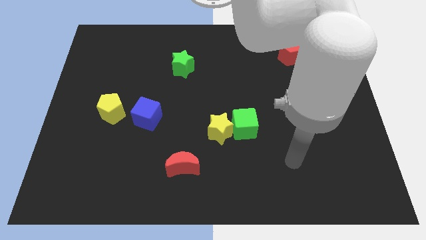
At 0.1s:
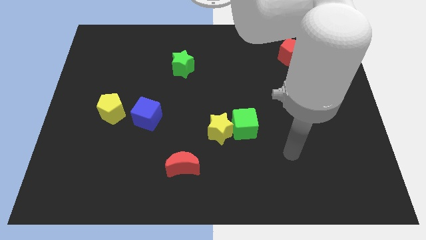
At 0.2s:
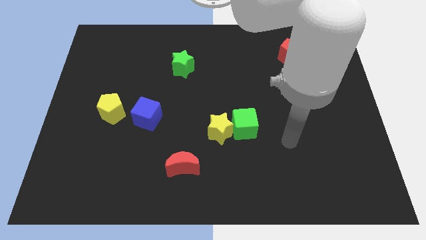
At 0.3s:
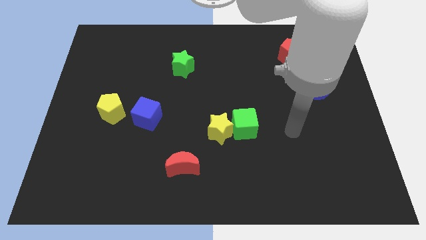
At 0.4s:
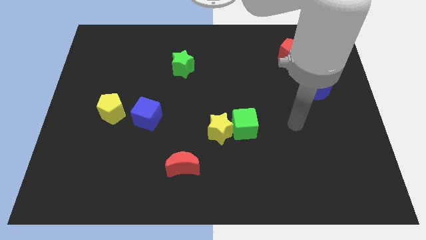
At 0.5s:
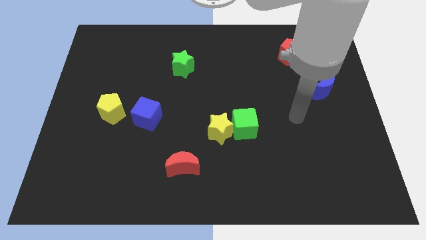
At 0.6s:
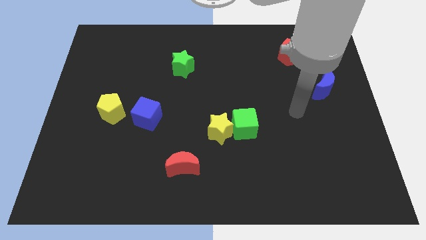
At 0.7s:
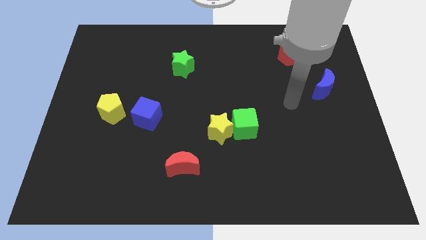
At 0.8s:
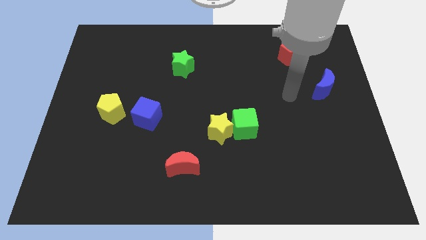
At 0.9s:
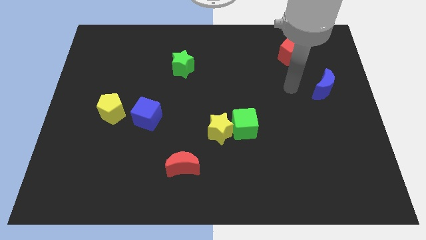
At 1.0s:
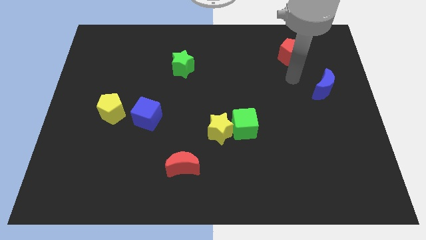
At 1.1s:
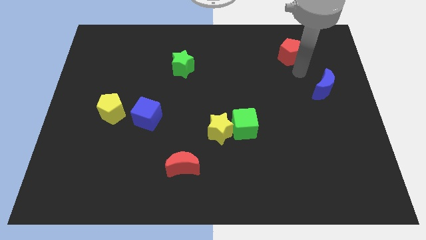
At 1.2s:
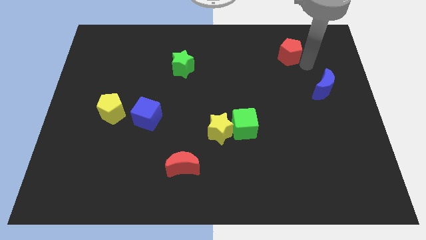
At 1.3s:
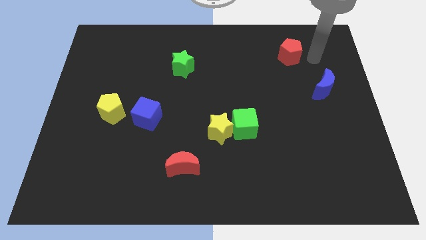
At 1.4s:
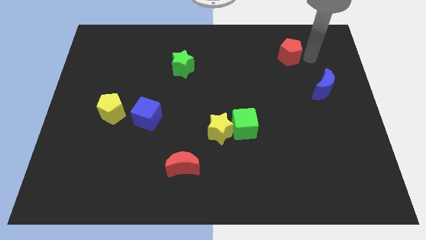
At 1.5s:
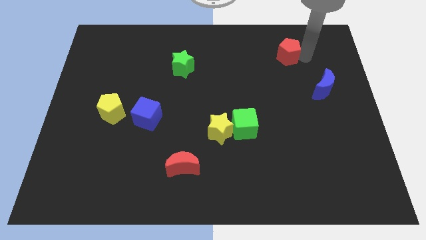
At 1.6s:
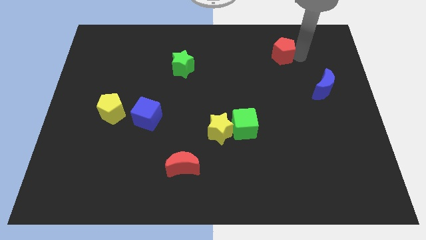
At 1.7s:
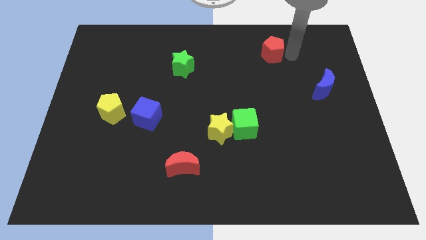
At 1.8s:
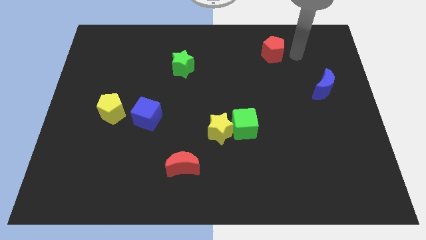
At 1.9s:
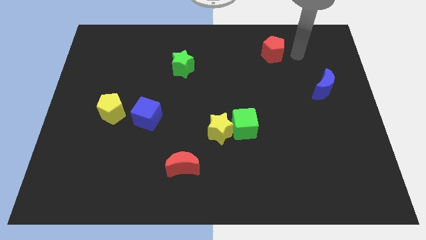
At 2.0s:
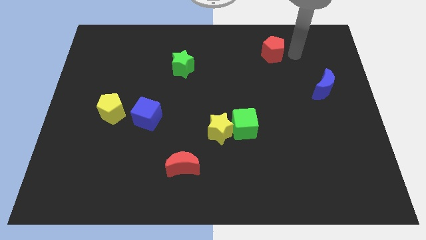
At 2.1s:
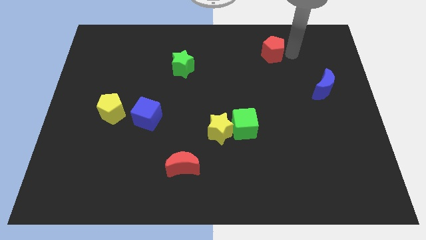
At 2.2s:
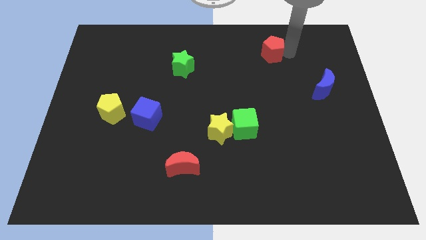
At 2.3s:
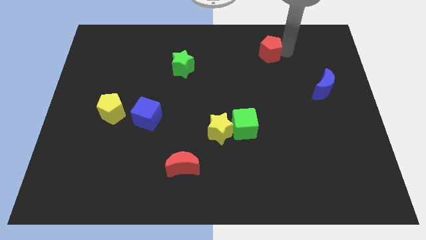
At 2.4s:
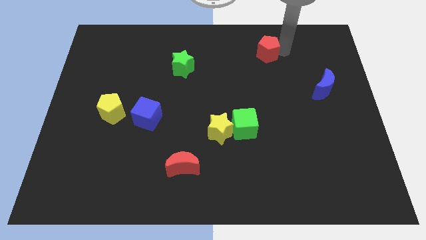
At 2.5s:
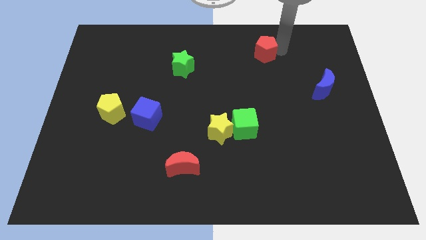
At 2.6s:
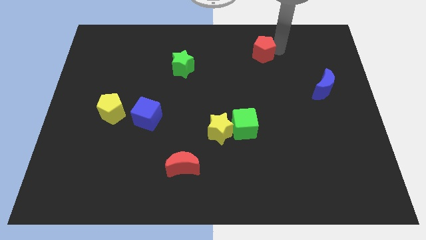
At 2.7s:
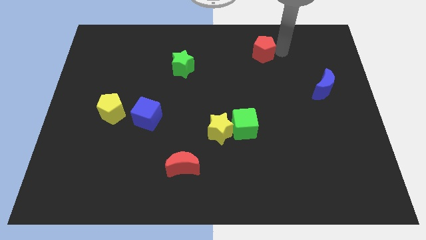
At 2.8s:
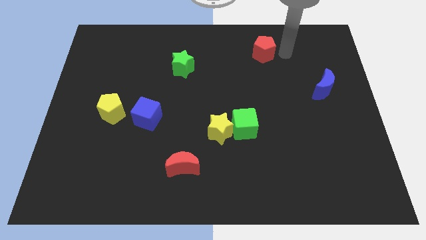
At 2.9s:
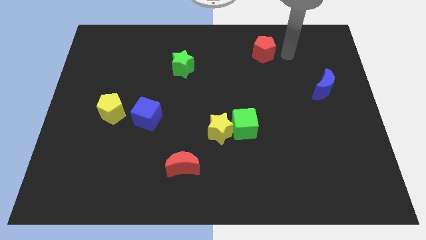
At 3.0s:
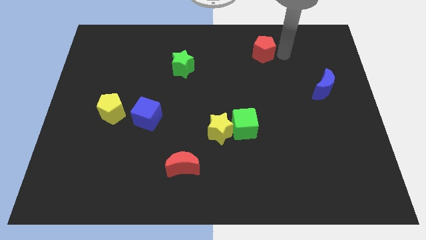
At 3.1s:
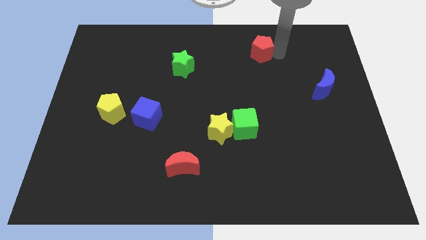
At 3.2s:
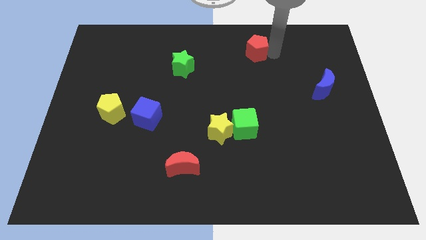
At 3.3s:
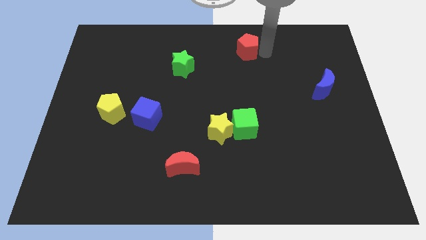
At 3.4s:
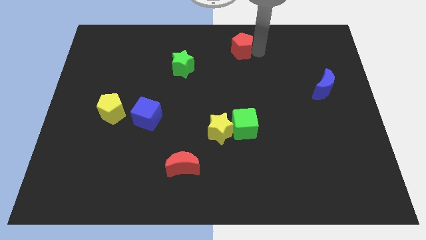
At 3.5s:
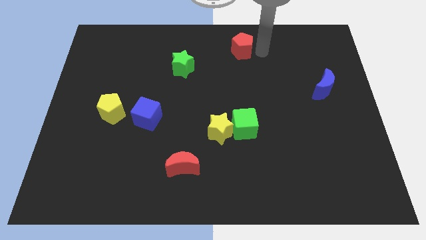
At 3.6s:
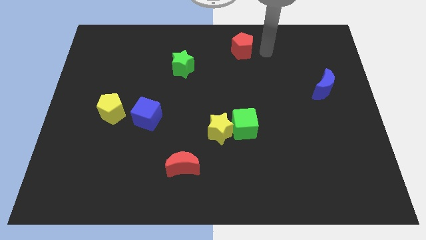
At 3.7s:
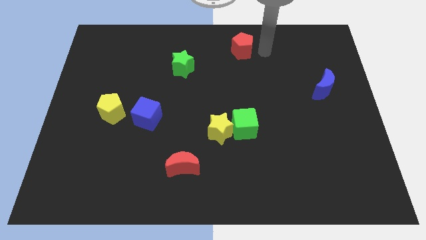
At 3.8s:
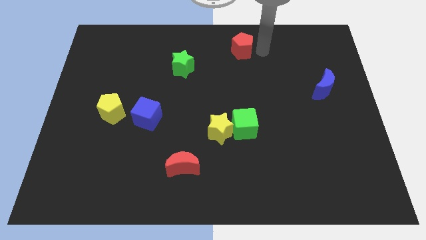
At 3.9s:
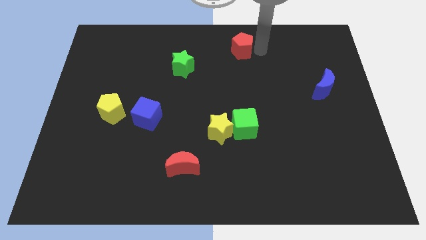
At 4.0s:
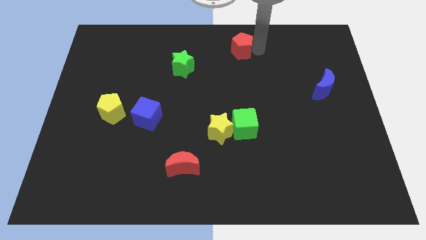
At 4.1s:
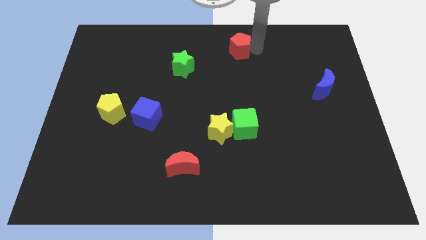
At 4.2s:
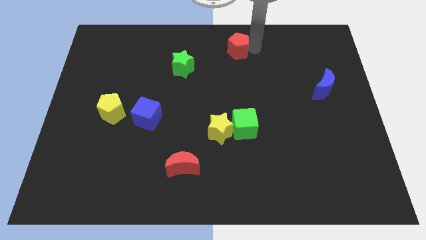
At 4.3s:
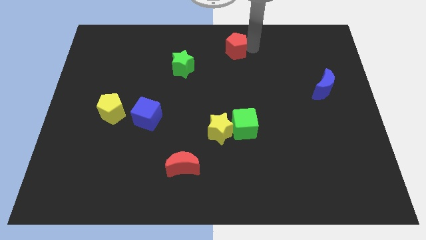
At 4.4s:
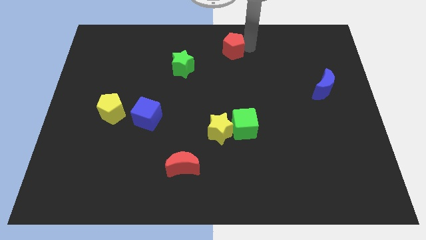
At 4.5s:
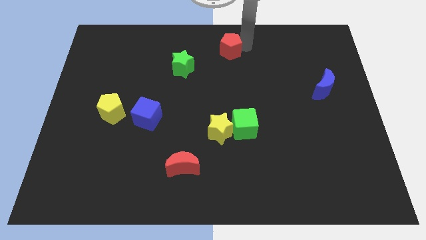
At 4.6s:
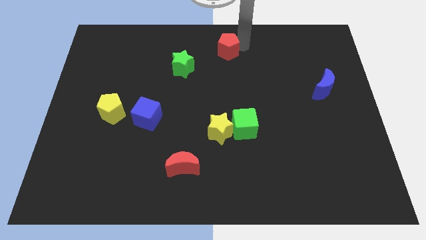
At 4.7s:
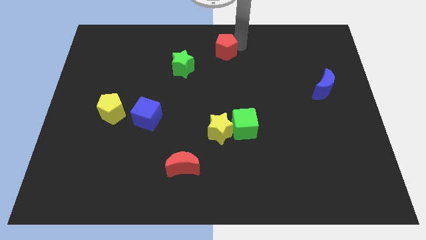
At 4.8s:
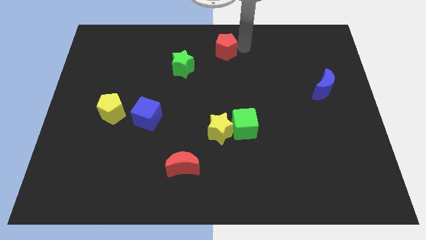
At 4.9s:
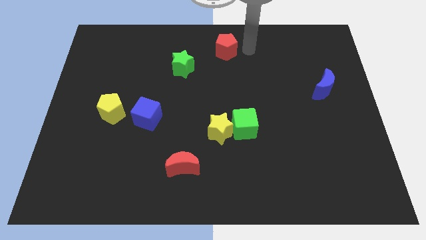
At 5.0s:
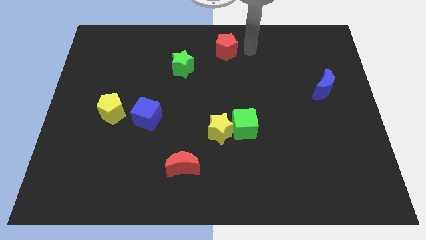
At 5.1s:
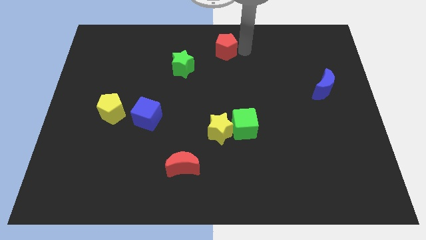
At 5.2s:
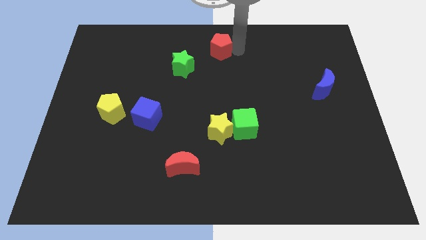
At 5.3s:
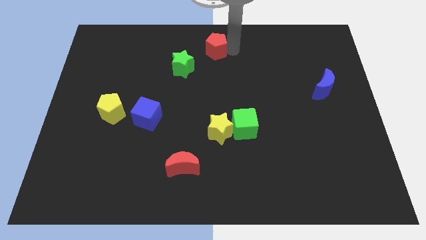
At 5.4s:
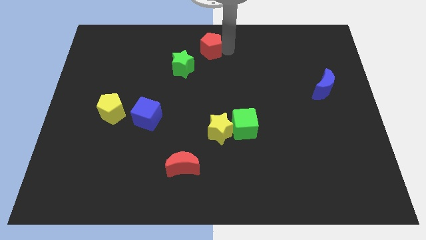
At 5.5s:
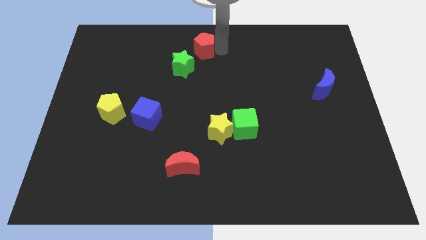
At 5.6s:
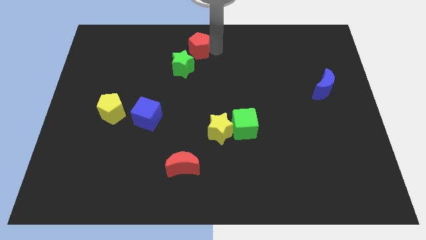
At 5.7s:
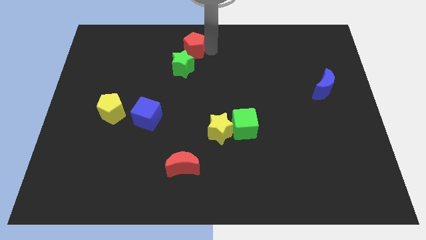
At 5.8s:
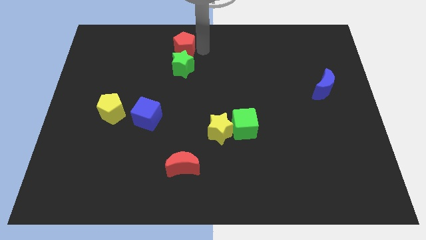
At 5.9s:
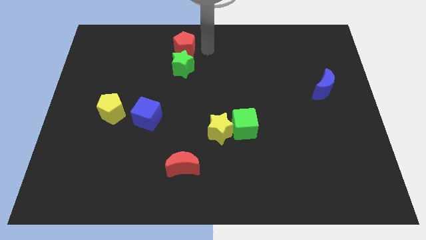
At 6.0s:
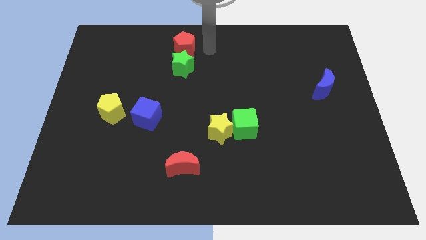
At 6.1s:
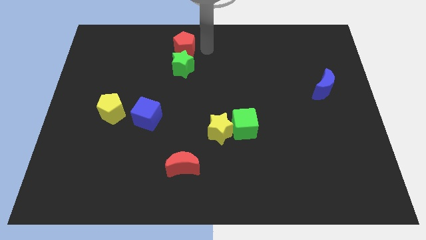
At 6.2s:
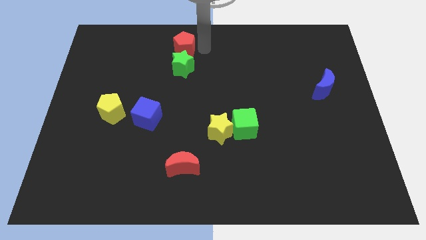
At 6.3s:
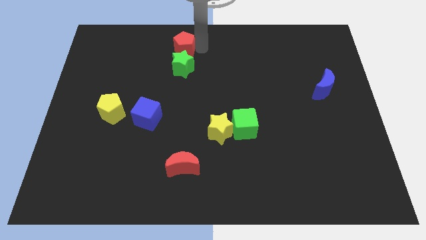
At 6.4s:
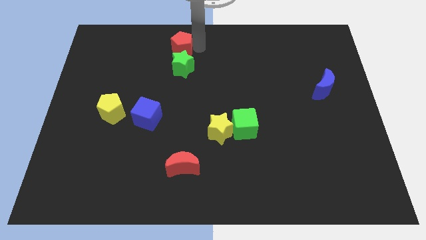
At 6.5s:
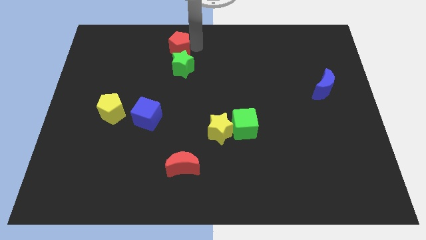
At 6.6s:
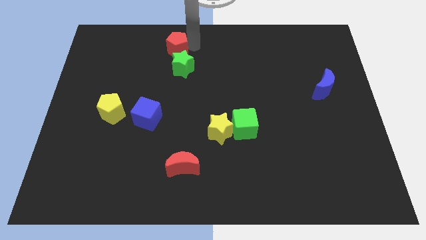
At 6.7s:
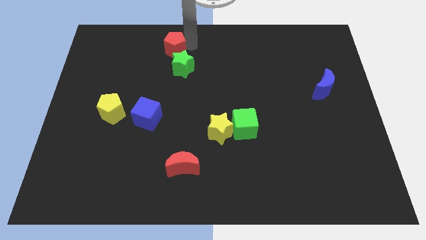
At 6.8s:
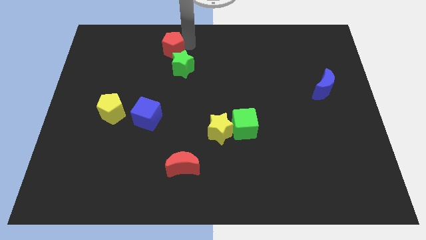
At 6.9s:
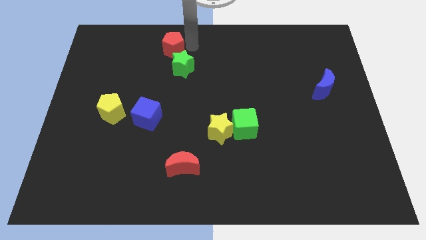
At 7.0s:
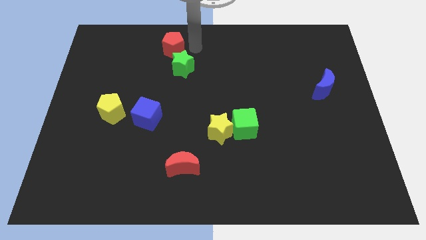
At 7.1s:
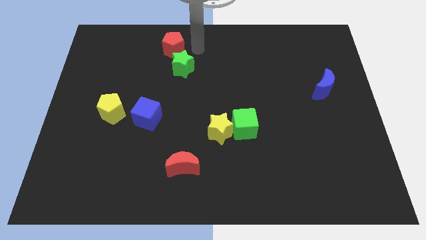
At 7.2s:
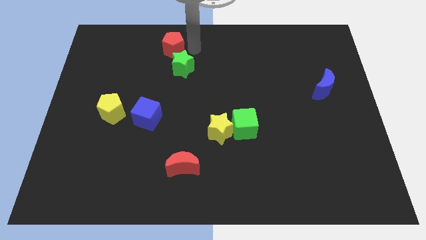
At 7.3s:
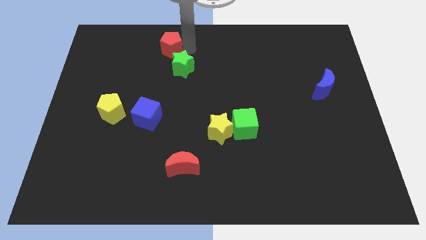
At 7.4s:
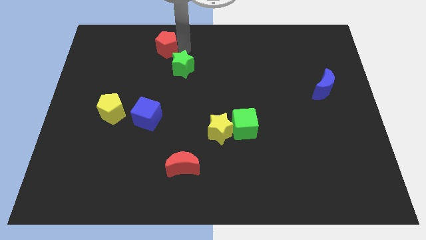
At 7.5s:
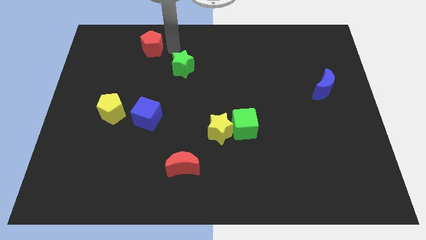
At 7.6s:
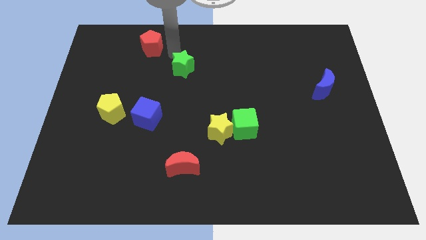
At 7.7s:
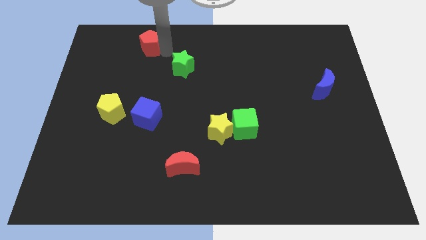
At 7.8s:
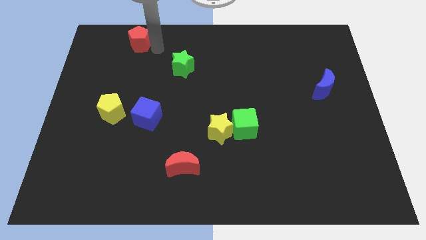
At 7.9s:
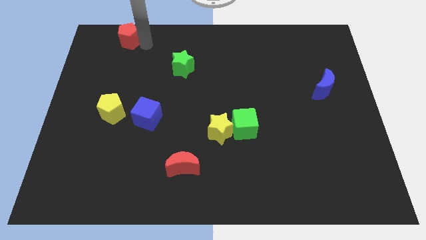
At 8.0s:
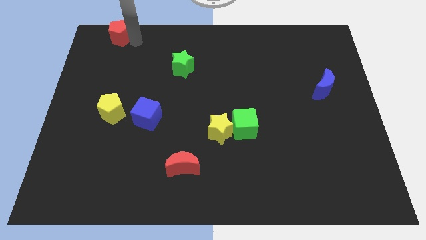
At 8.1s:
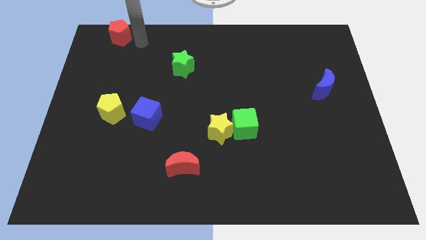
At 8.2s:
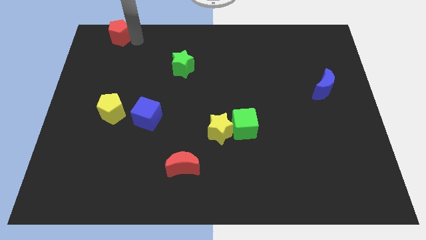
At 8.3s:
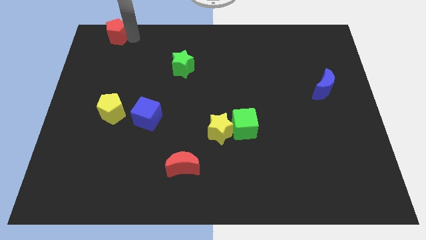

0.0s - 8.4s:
push the red pentagon to the upper left corner
